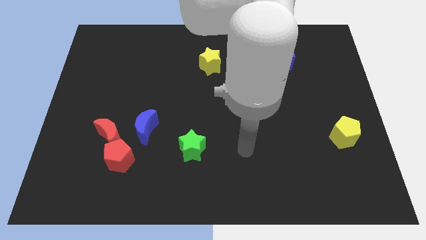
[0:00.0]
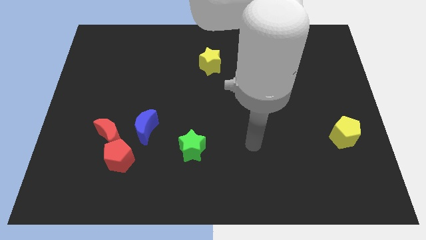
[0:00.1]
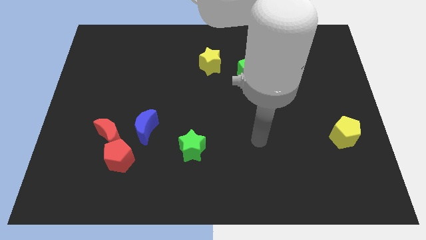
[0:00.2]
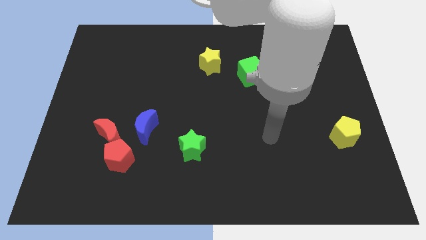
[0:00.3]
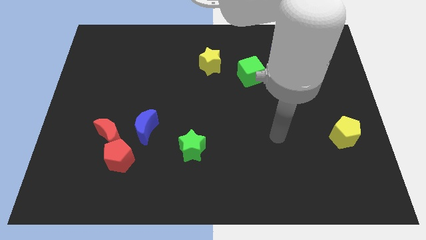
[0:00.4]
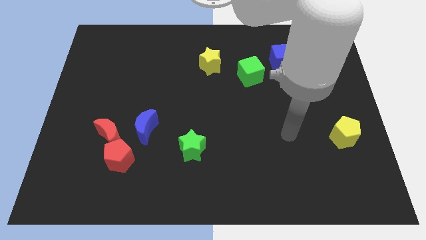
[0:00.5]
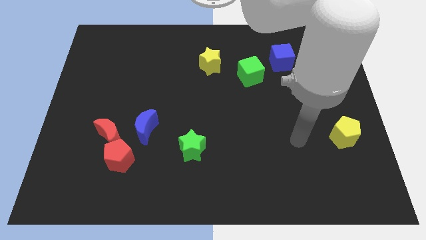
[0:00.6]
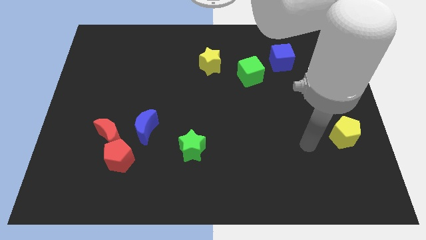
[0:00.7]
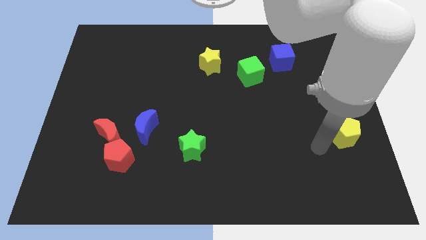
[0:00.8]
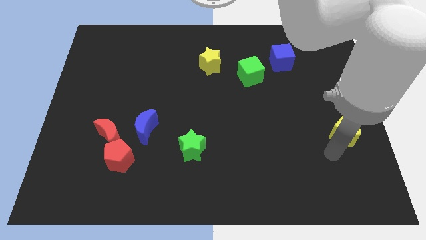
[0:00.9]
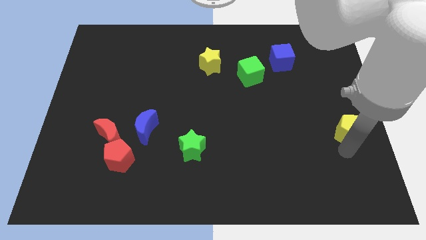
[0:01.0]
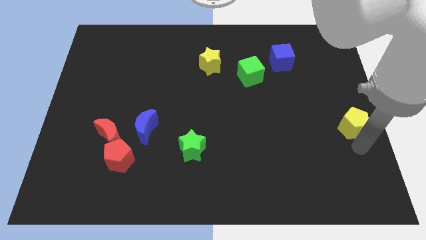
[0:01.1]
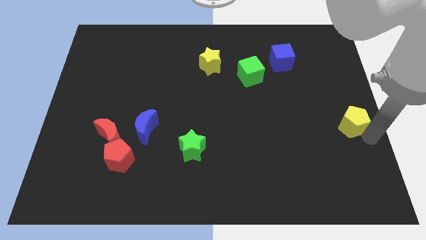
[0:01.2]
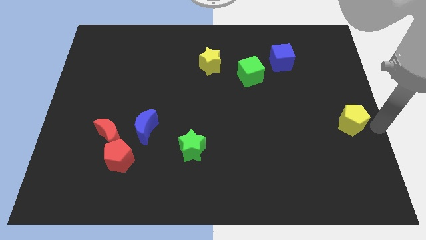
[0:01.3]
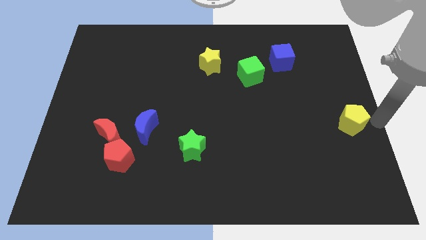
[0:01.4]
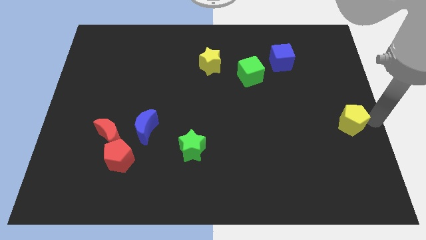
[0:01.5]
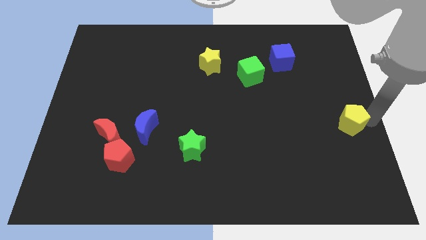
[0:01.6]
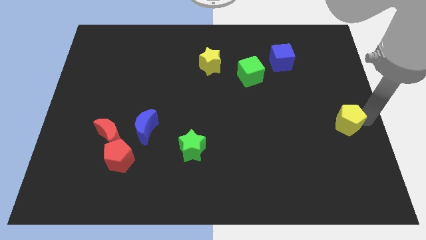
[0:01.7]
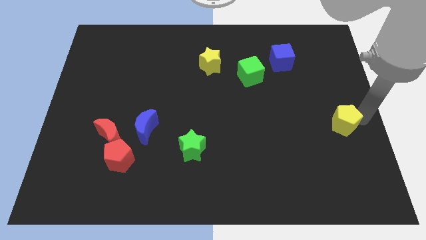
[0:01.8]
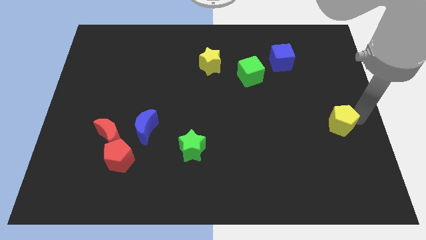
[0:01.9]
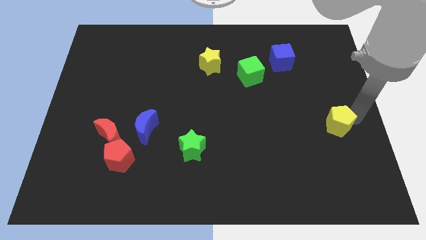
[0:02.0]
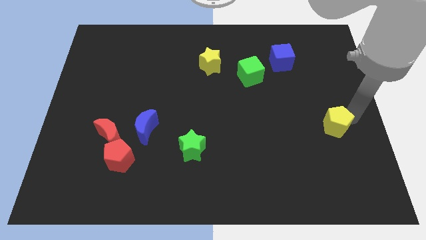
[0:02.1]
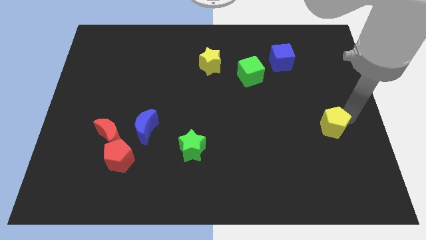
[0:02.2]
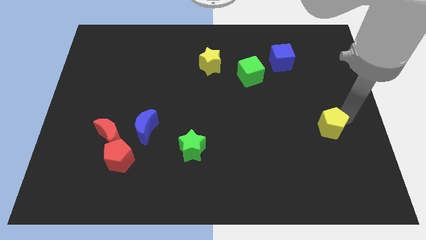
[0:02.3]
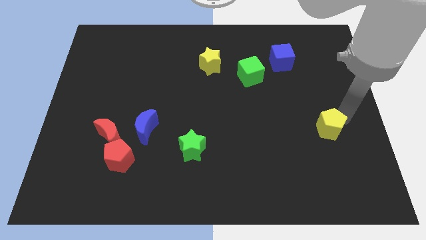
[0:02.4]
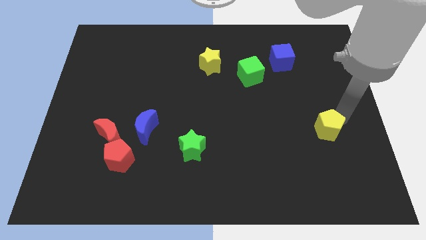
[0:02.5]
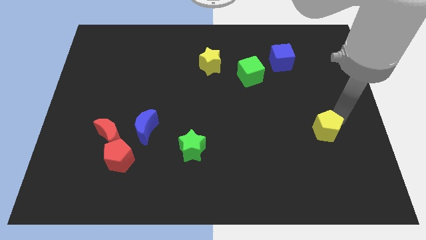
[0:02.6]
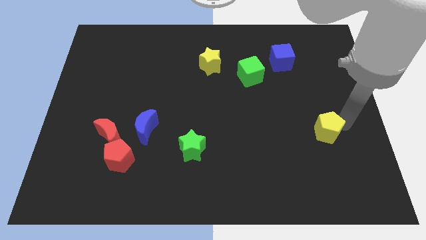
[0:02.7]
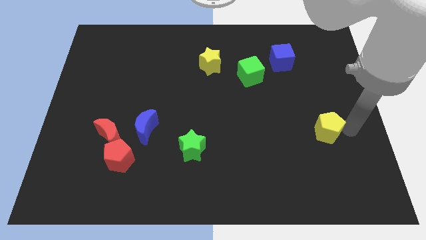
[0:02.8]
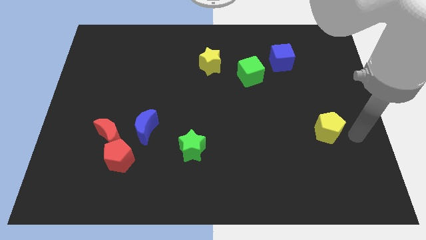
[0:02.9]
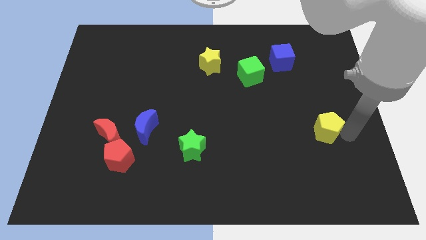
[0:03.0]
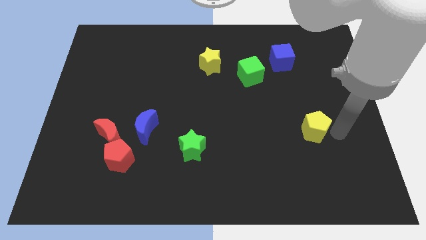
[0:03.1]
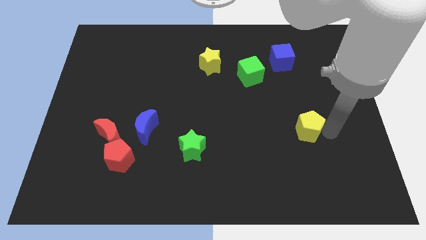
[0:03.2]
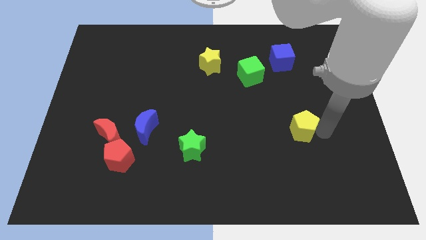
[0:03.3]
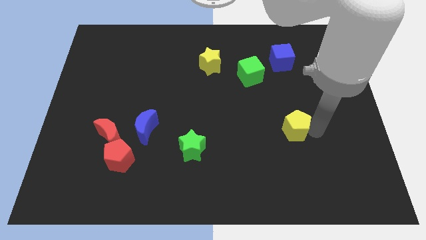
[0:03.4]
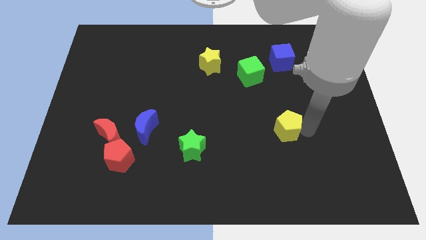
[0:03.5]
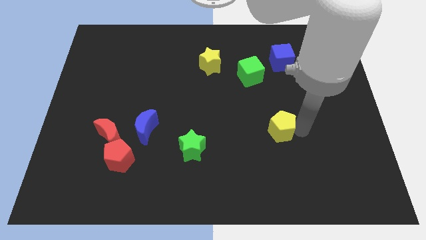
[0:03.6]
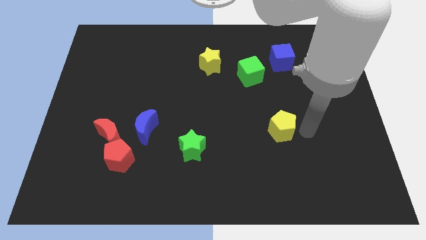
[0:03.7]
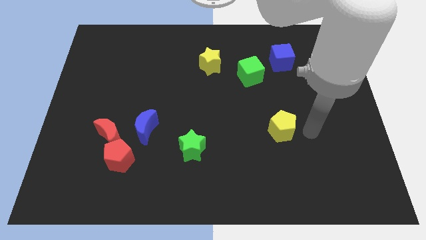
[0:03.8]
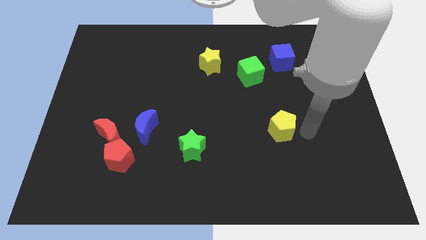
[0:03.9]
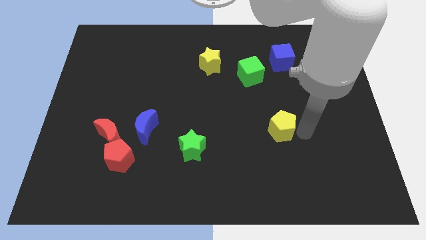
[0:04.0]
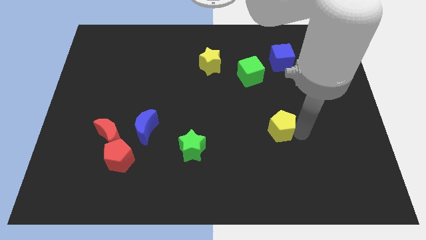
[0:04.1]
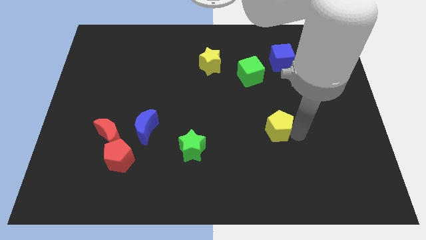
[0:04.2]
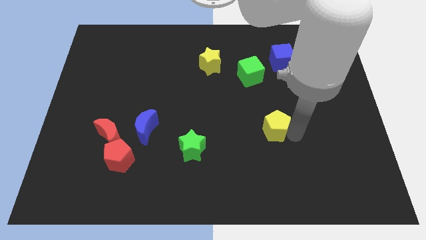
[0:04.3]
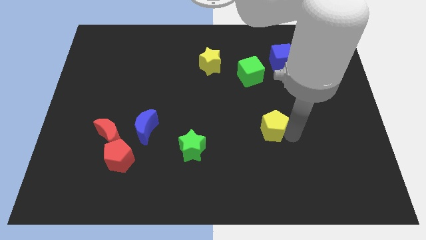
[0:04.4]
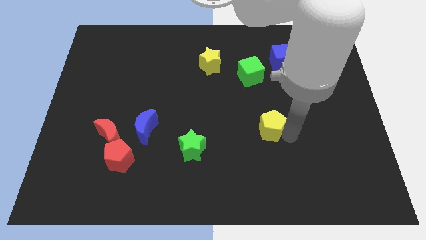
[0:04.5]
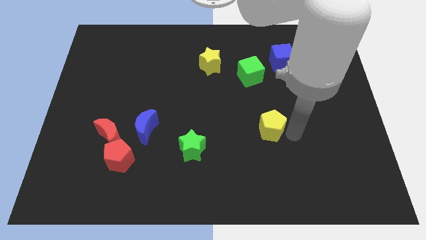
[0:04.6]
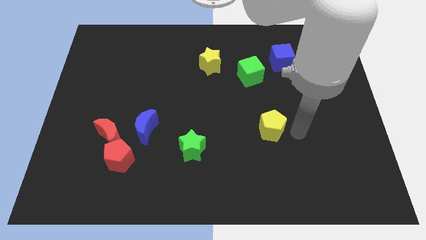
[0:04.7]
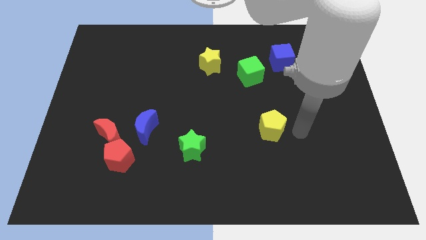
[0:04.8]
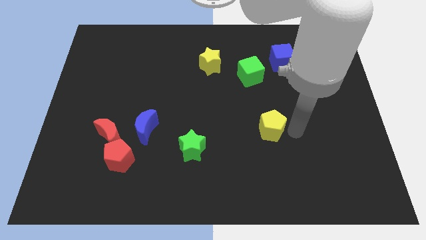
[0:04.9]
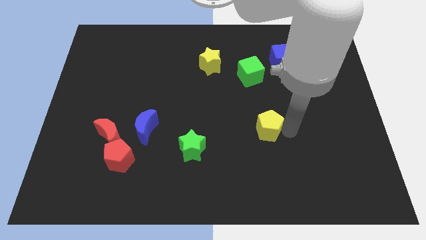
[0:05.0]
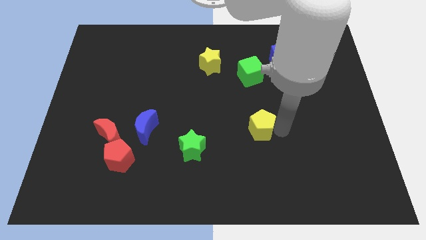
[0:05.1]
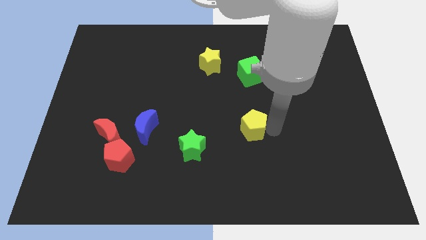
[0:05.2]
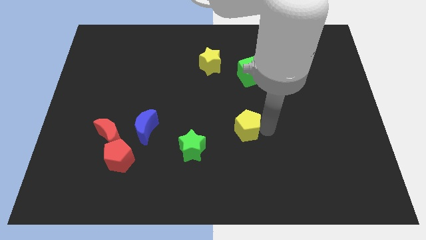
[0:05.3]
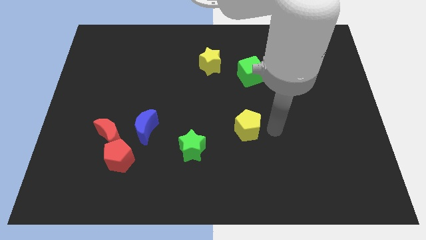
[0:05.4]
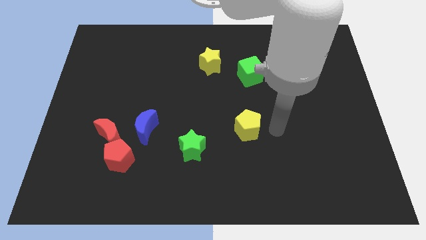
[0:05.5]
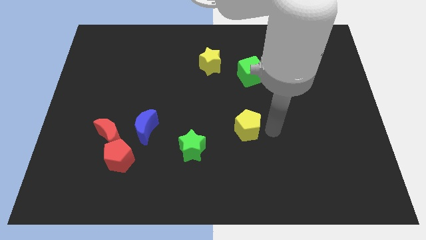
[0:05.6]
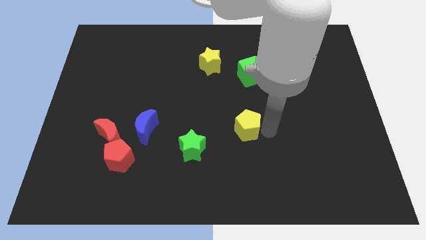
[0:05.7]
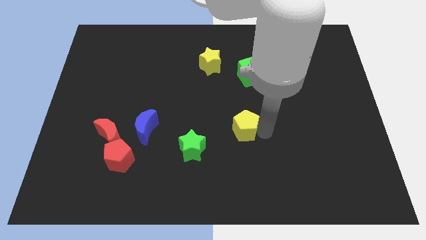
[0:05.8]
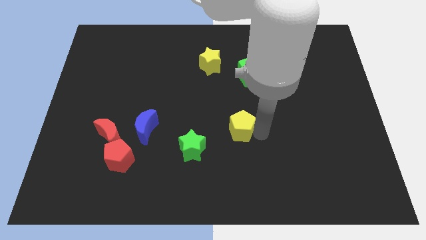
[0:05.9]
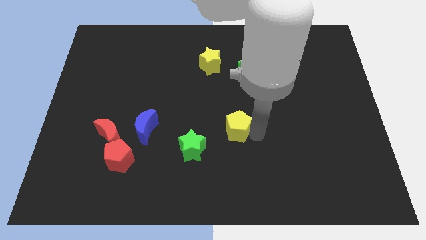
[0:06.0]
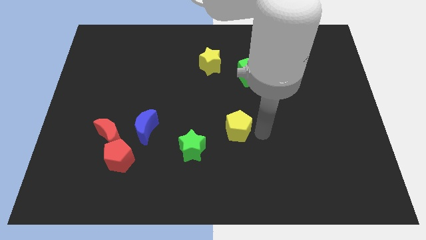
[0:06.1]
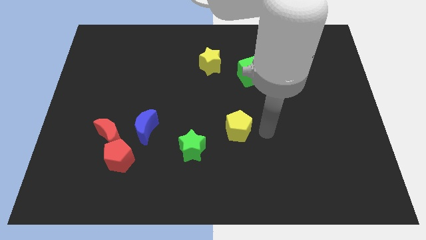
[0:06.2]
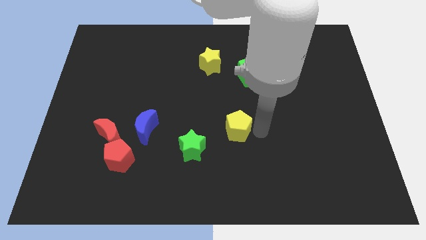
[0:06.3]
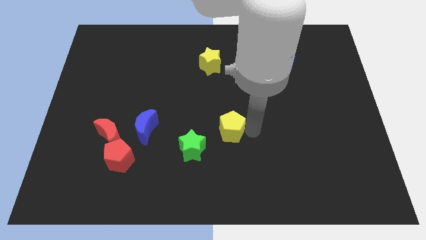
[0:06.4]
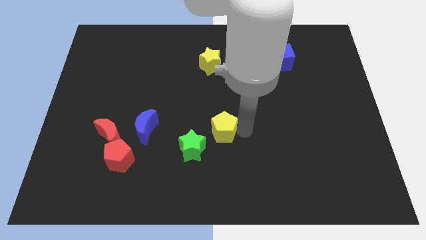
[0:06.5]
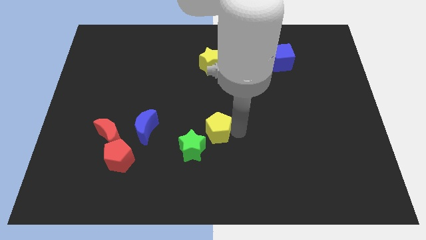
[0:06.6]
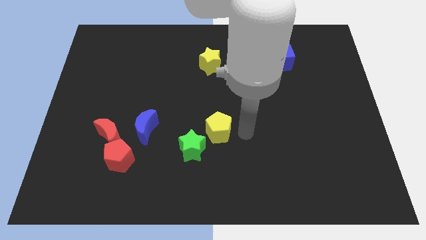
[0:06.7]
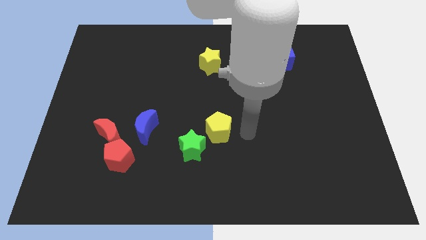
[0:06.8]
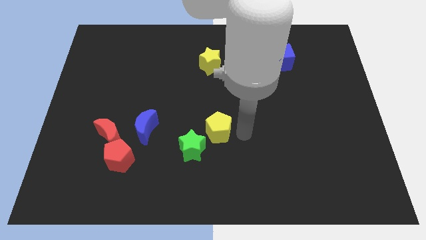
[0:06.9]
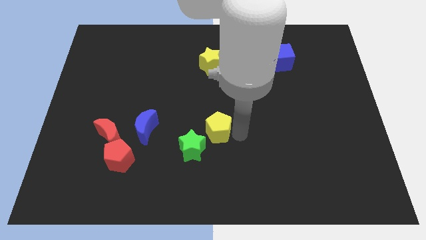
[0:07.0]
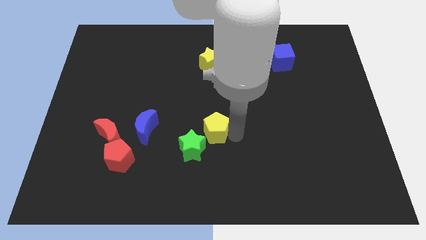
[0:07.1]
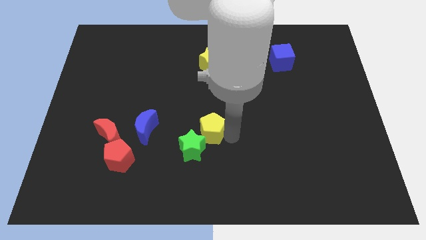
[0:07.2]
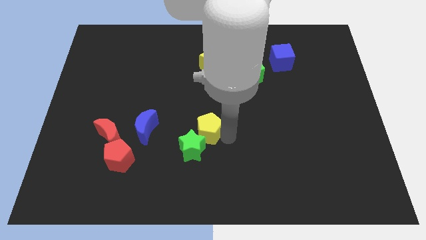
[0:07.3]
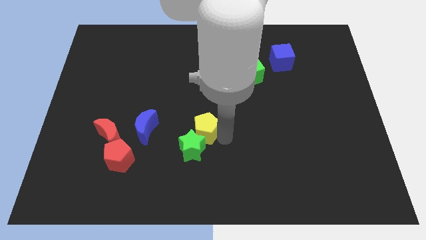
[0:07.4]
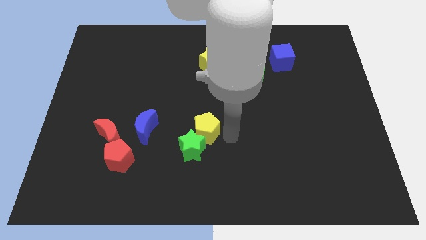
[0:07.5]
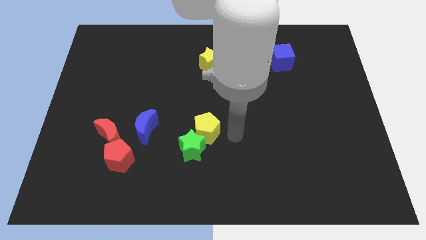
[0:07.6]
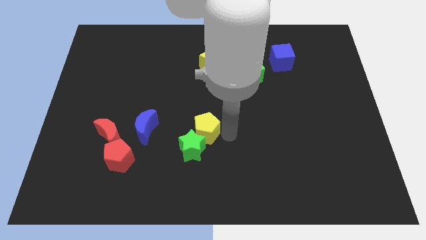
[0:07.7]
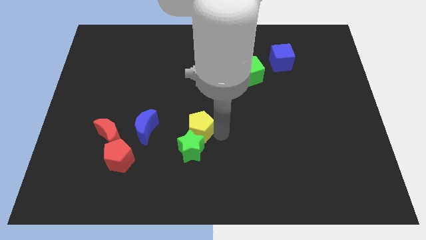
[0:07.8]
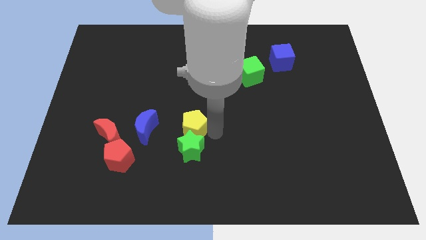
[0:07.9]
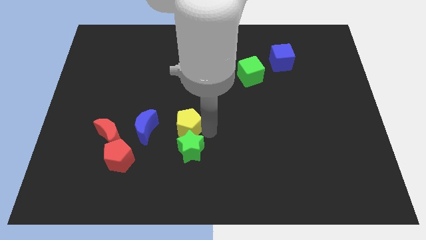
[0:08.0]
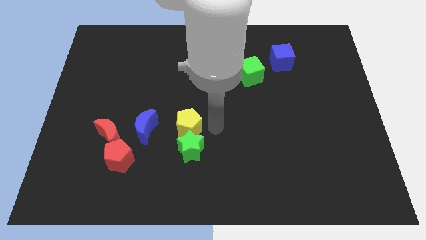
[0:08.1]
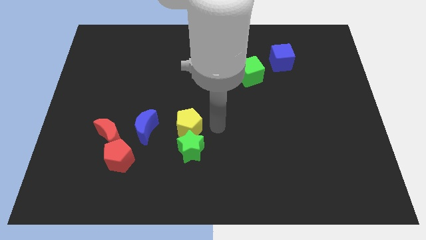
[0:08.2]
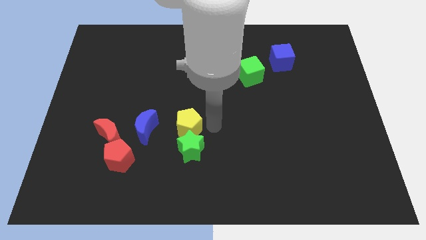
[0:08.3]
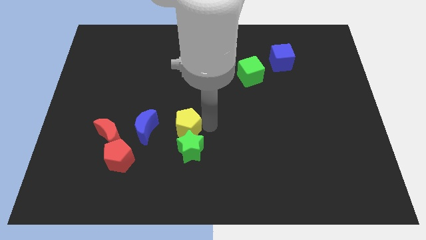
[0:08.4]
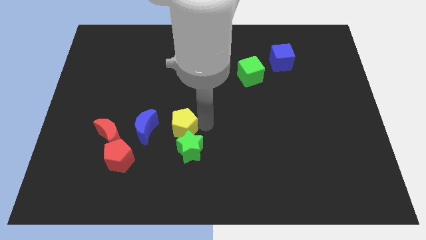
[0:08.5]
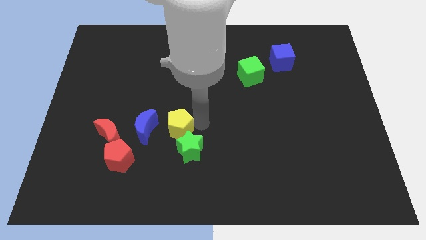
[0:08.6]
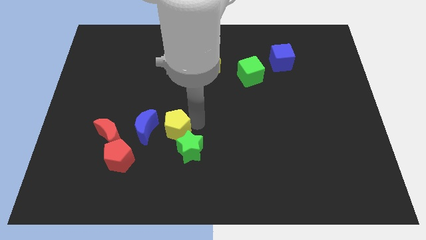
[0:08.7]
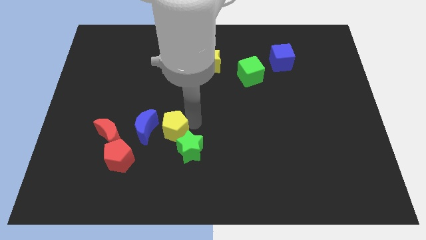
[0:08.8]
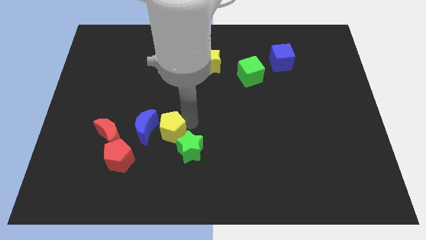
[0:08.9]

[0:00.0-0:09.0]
push the yellow pentagon next to the blue moon
